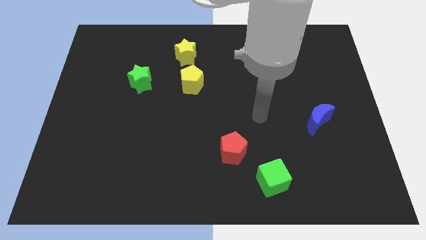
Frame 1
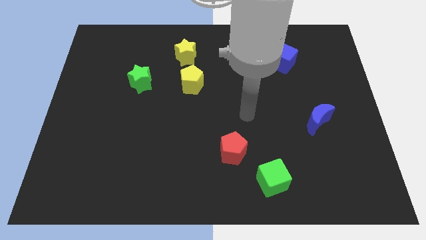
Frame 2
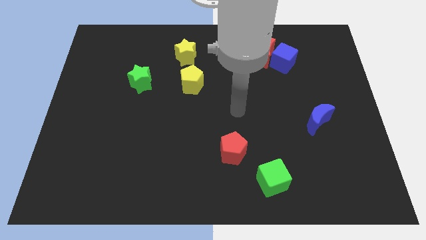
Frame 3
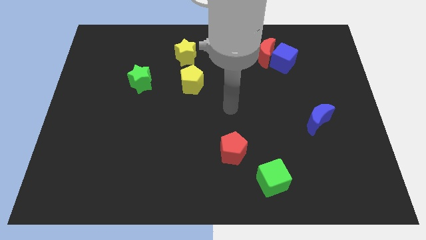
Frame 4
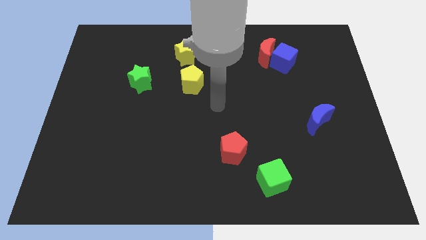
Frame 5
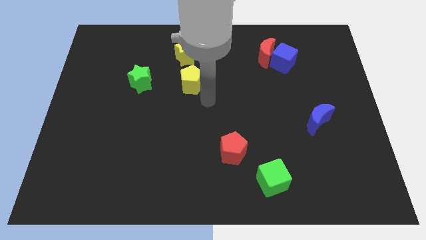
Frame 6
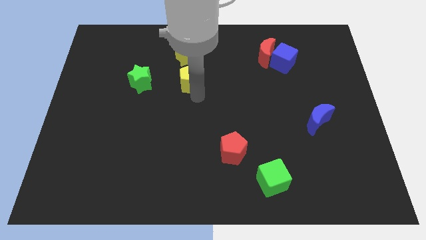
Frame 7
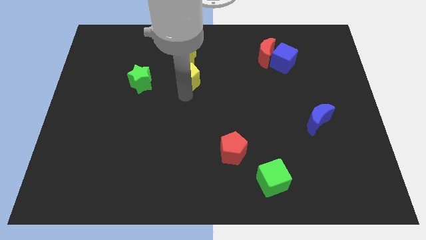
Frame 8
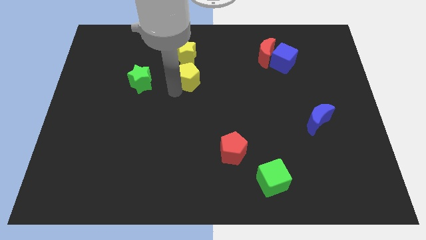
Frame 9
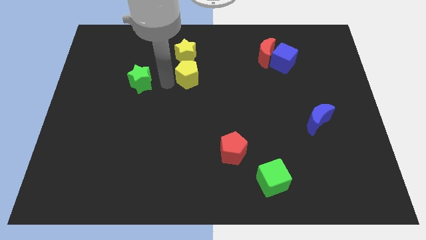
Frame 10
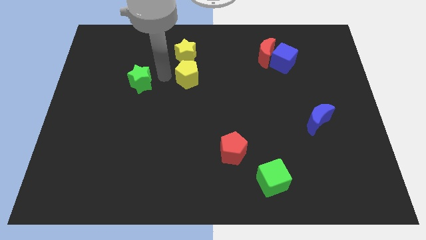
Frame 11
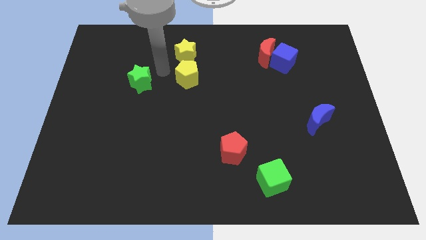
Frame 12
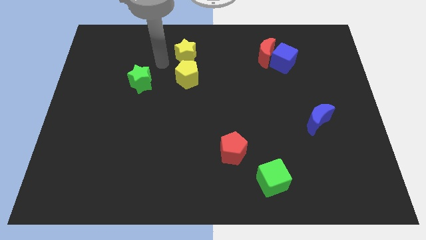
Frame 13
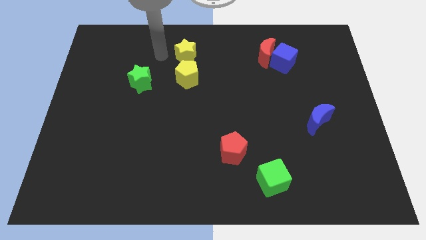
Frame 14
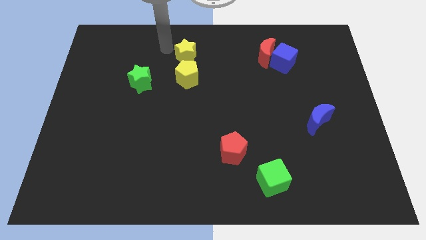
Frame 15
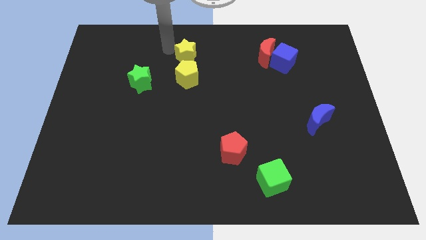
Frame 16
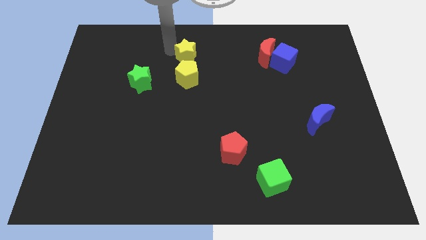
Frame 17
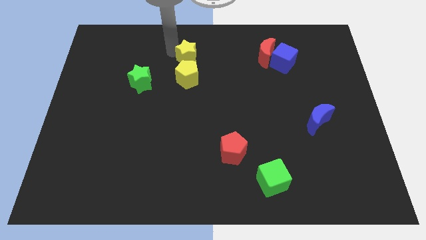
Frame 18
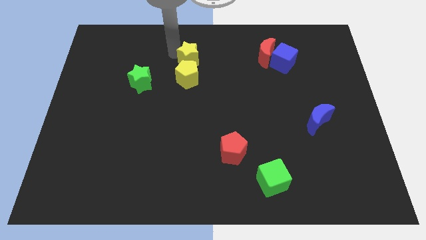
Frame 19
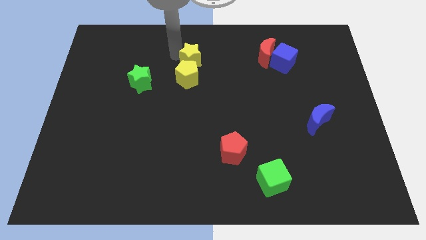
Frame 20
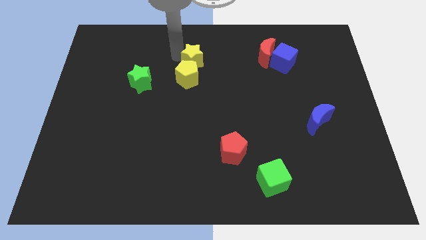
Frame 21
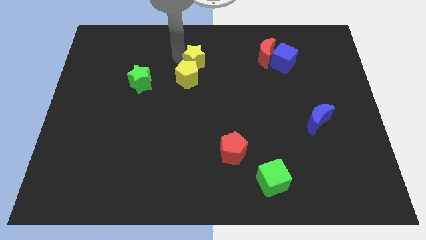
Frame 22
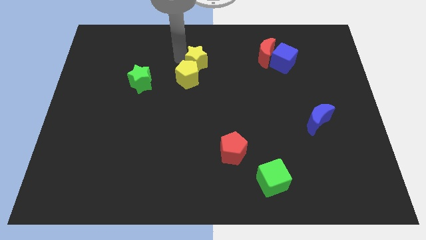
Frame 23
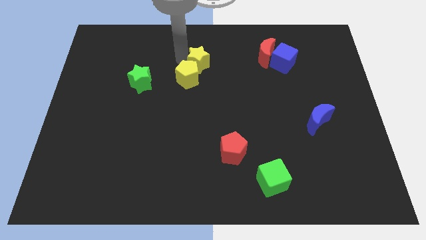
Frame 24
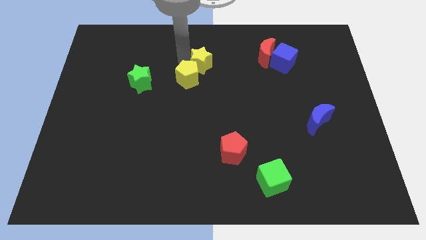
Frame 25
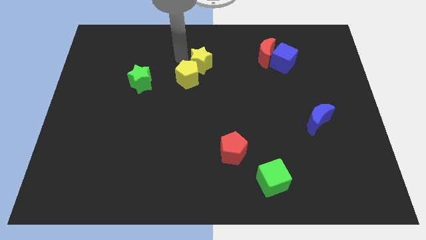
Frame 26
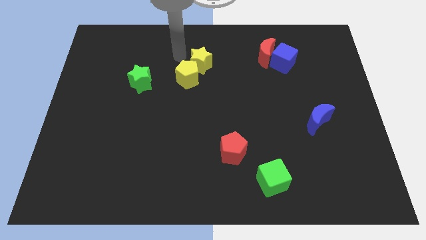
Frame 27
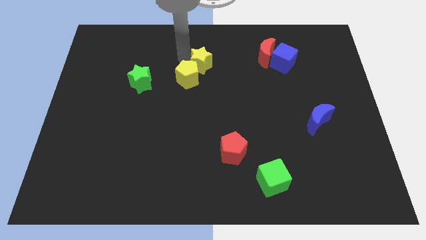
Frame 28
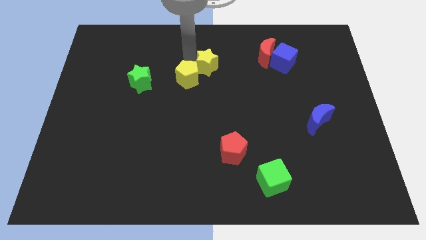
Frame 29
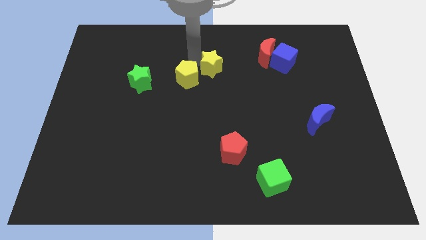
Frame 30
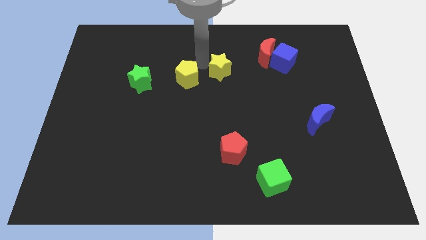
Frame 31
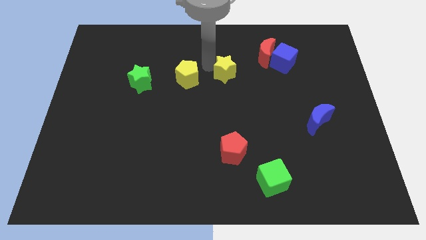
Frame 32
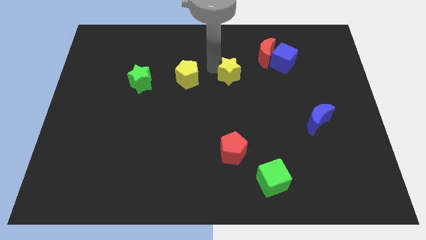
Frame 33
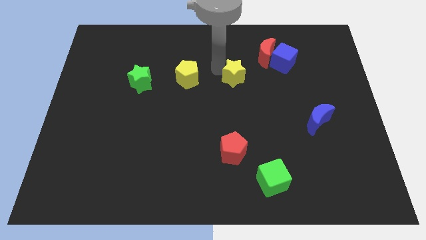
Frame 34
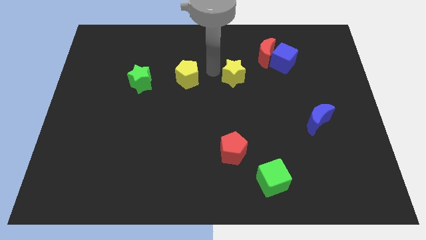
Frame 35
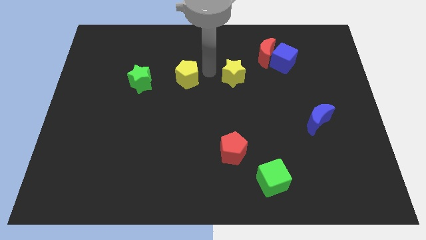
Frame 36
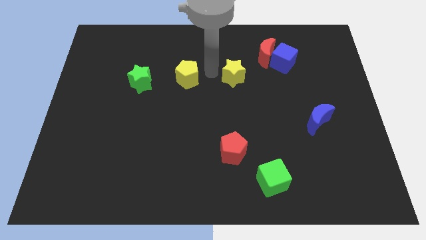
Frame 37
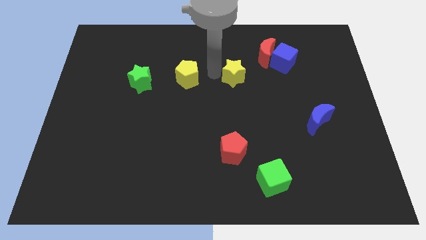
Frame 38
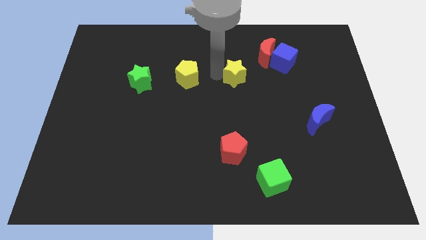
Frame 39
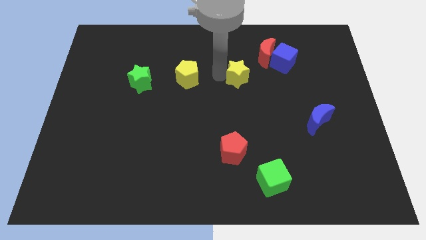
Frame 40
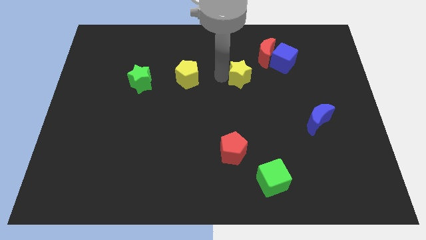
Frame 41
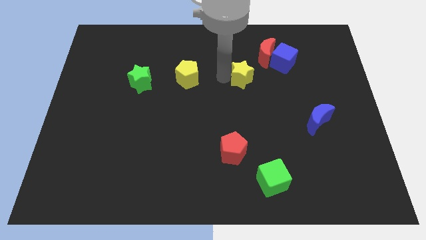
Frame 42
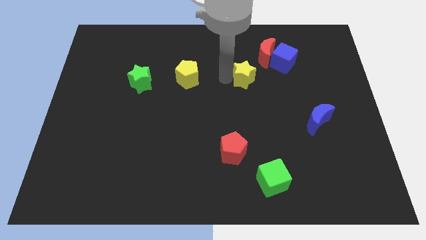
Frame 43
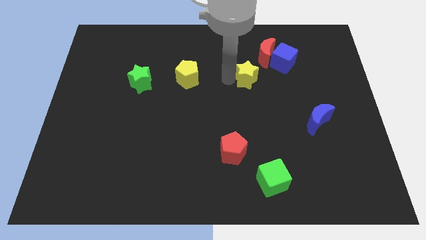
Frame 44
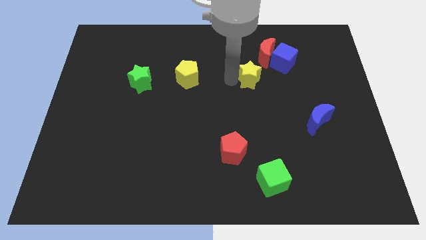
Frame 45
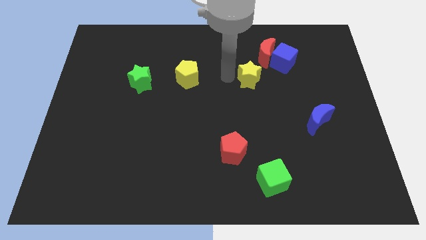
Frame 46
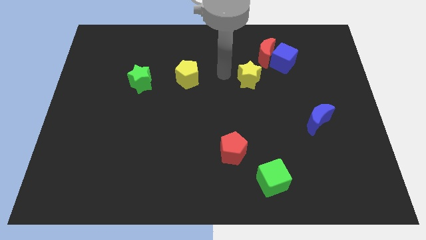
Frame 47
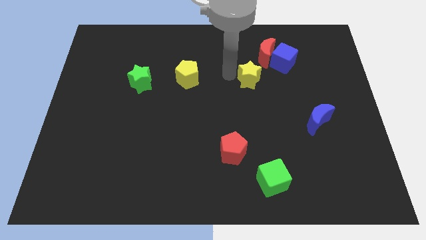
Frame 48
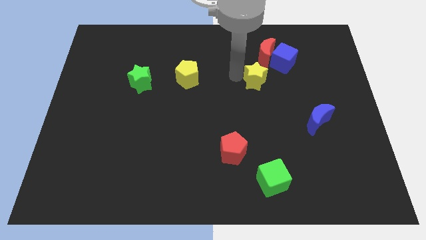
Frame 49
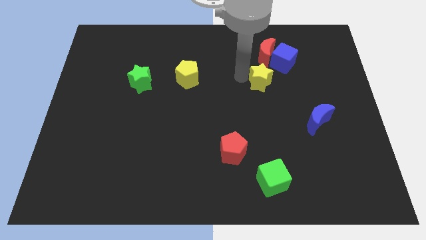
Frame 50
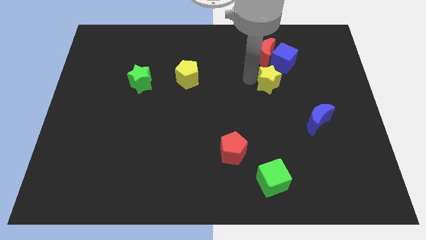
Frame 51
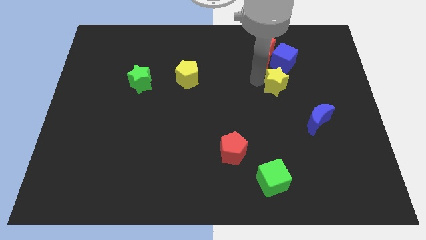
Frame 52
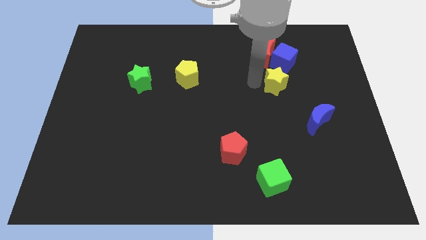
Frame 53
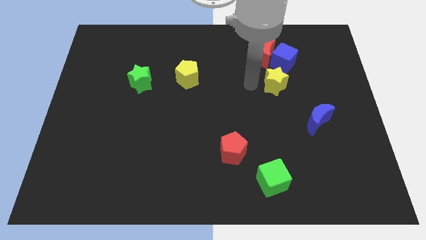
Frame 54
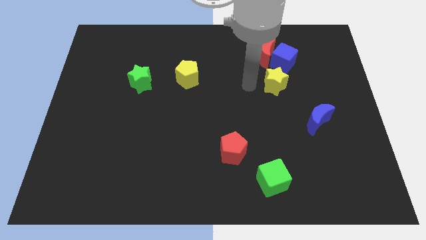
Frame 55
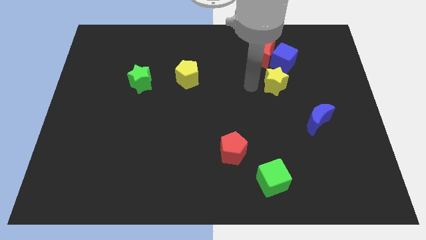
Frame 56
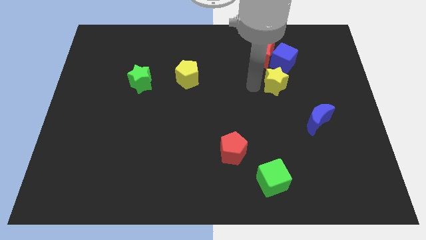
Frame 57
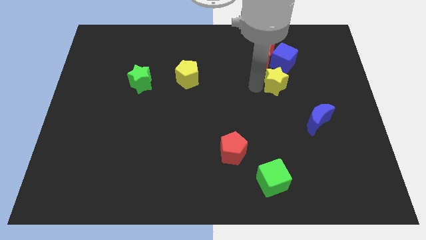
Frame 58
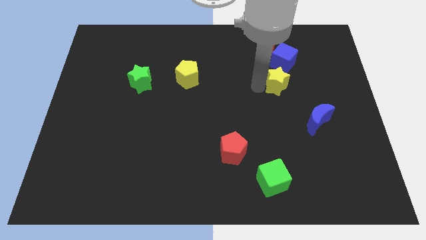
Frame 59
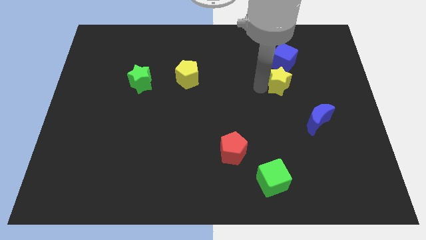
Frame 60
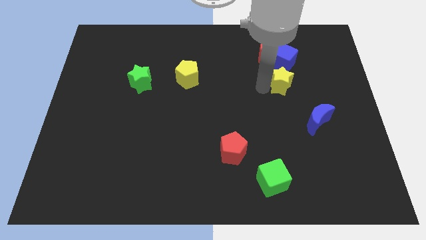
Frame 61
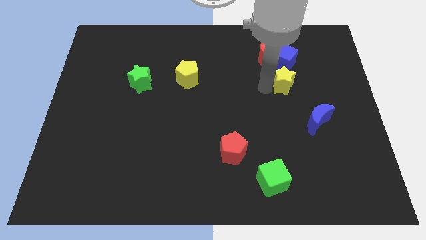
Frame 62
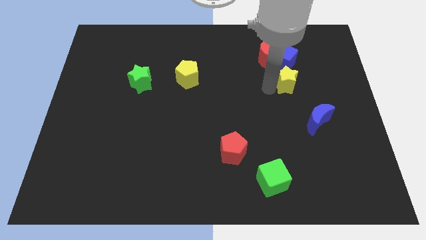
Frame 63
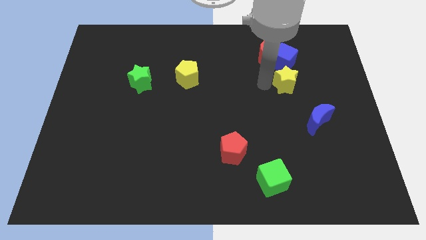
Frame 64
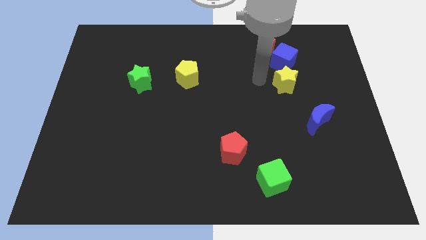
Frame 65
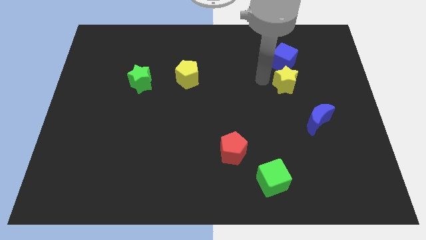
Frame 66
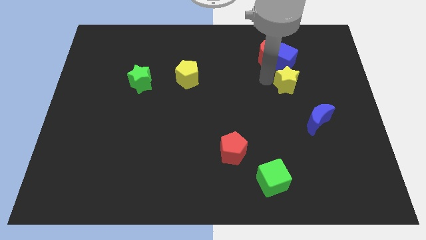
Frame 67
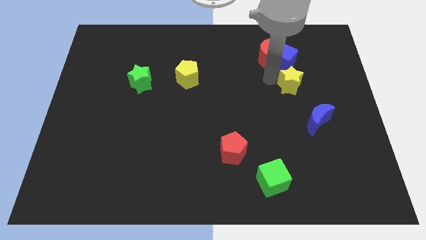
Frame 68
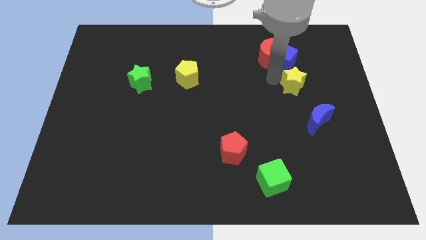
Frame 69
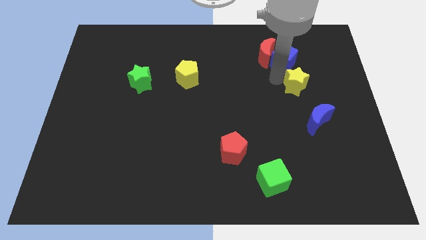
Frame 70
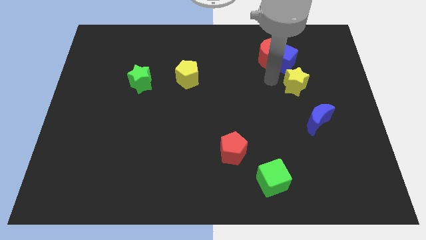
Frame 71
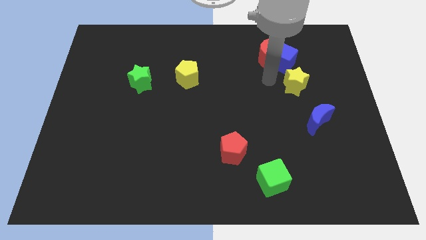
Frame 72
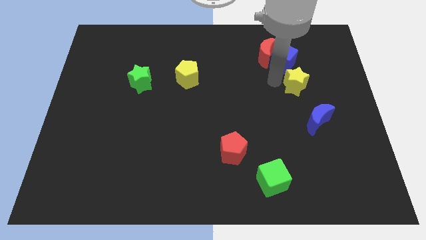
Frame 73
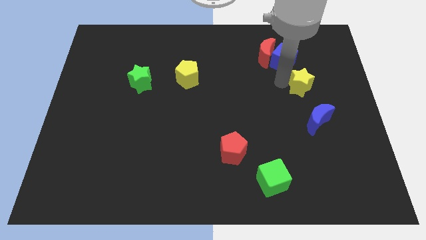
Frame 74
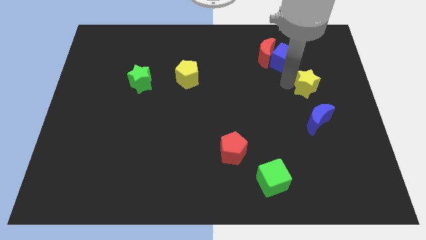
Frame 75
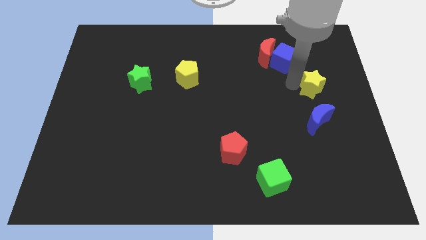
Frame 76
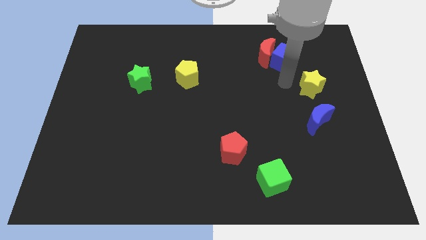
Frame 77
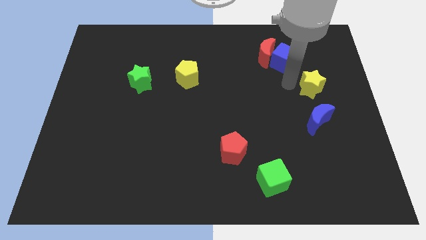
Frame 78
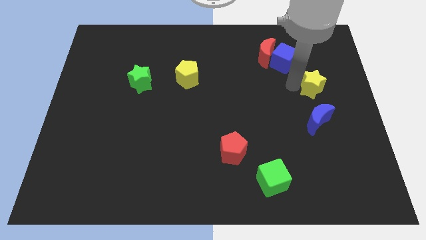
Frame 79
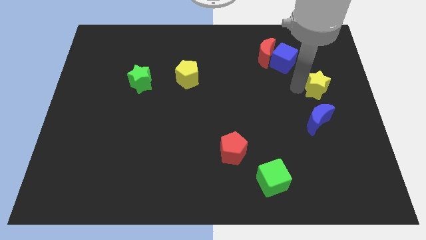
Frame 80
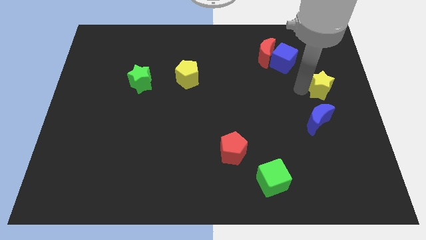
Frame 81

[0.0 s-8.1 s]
slide the yellow star to the right side
